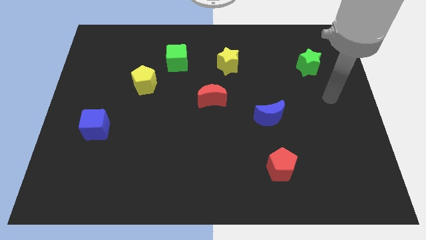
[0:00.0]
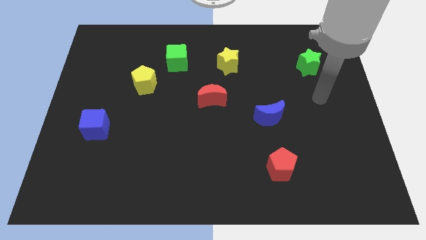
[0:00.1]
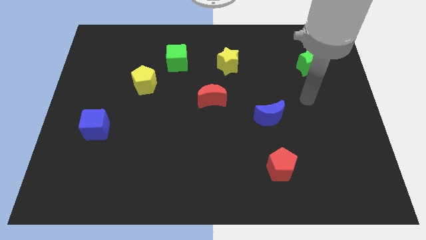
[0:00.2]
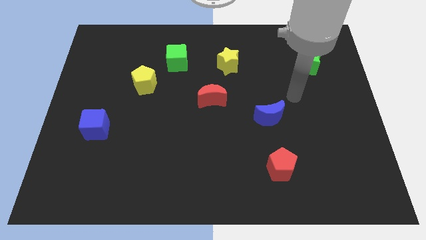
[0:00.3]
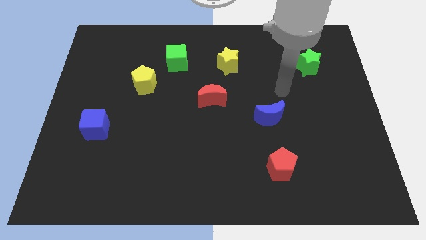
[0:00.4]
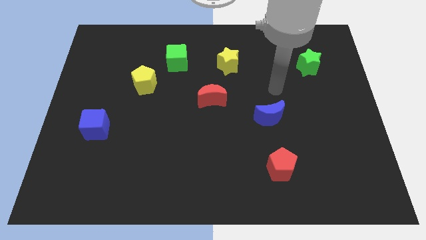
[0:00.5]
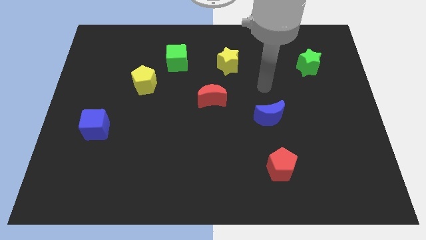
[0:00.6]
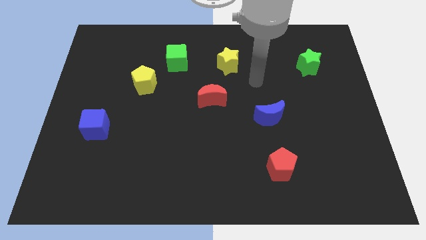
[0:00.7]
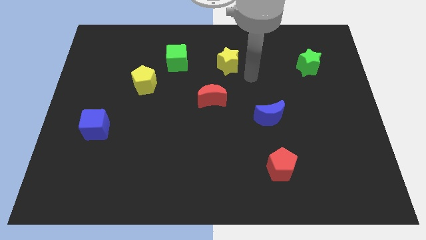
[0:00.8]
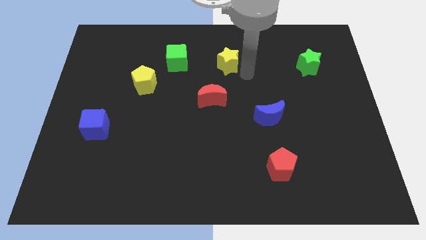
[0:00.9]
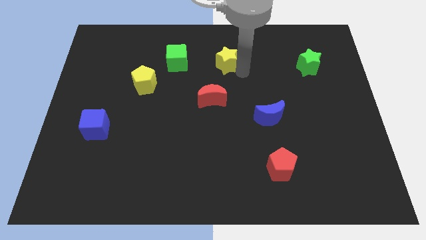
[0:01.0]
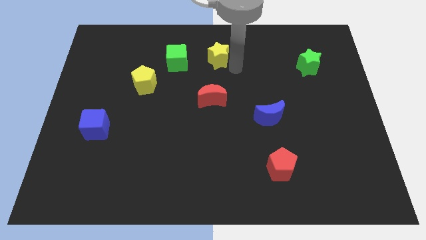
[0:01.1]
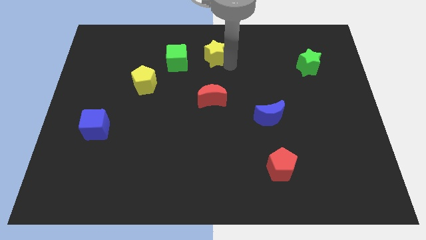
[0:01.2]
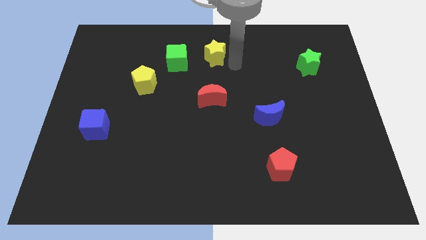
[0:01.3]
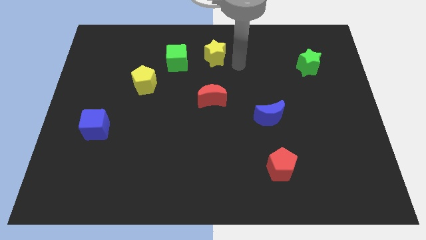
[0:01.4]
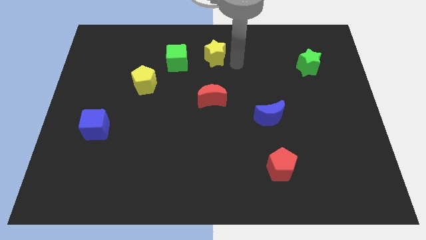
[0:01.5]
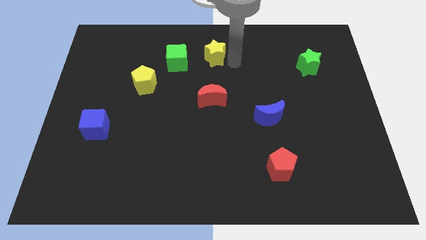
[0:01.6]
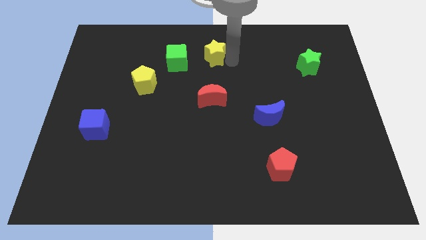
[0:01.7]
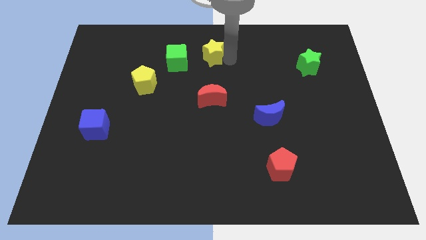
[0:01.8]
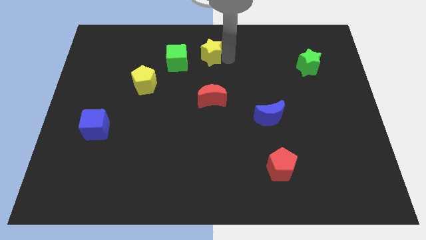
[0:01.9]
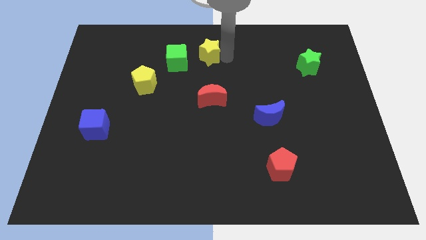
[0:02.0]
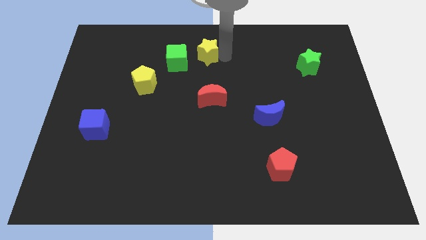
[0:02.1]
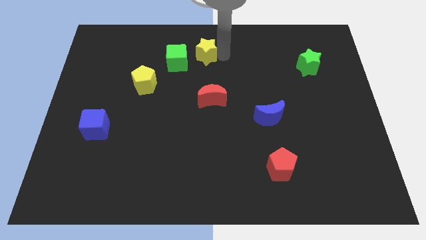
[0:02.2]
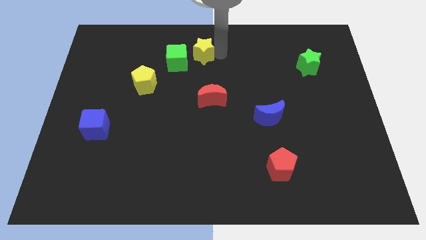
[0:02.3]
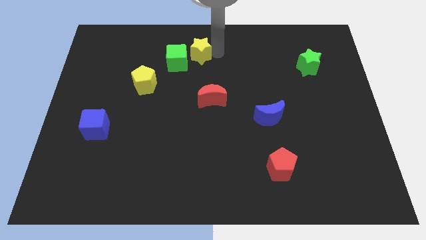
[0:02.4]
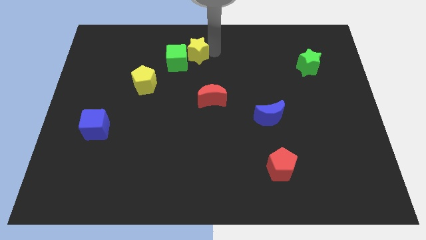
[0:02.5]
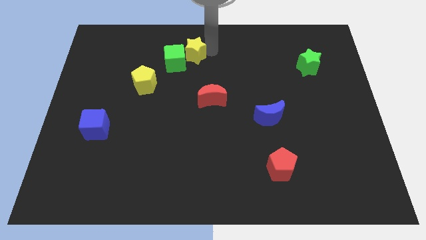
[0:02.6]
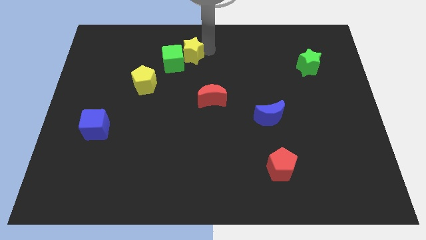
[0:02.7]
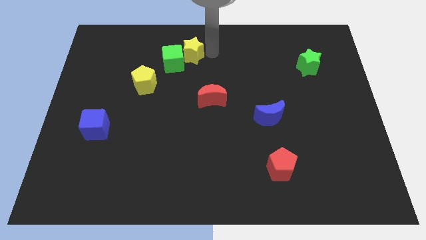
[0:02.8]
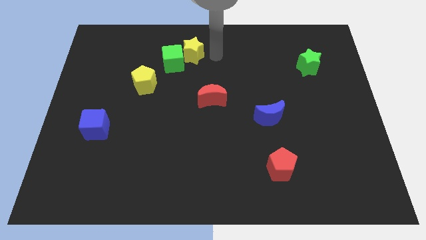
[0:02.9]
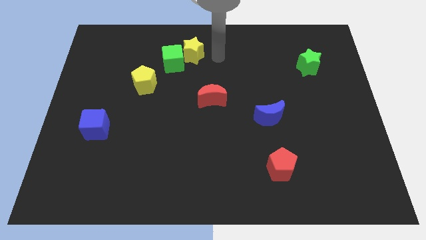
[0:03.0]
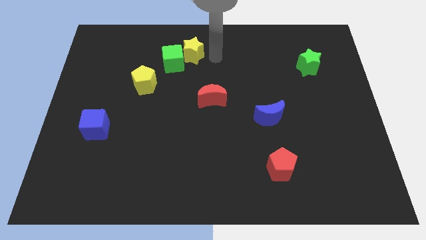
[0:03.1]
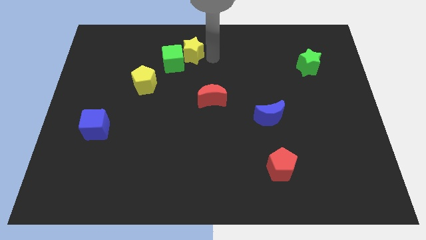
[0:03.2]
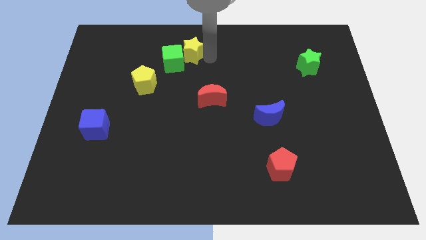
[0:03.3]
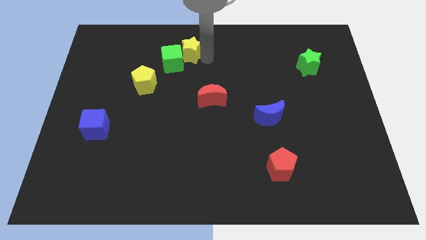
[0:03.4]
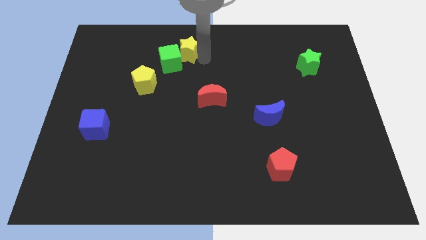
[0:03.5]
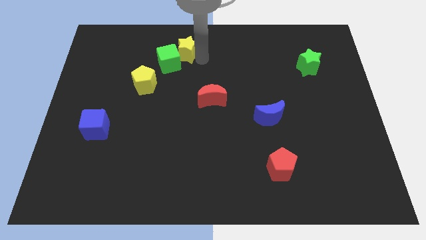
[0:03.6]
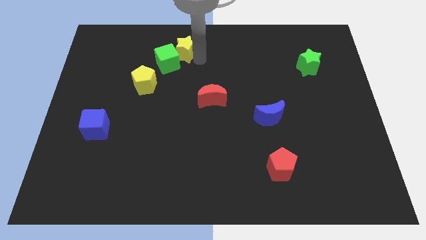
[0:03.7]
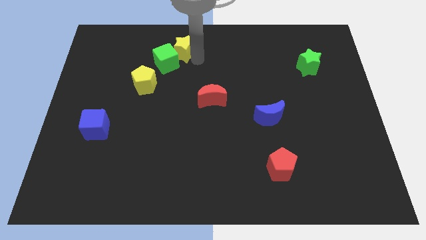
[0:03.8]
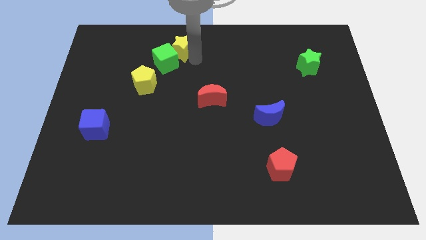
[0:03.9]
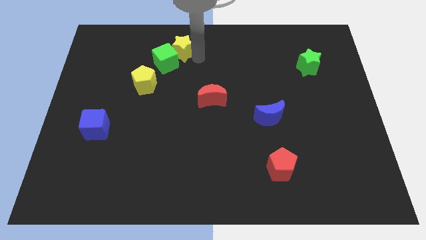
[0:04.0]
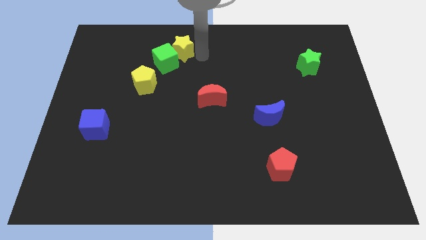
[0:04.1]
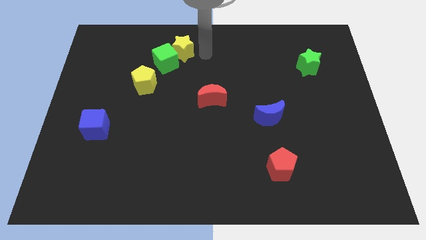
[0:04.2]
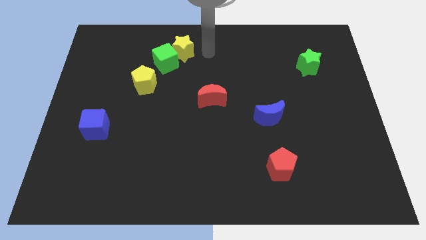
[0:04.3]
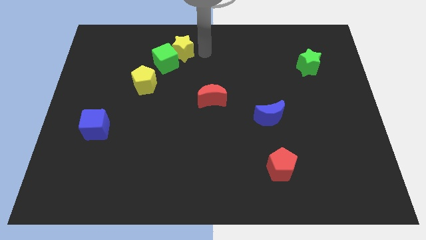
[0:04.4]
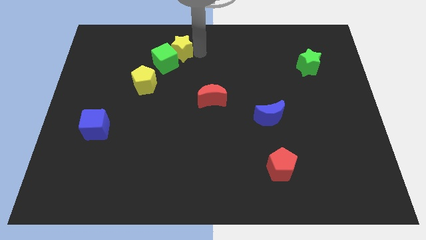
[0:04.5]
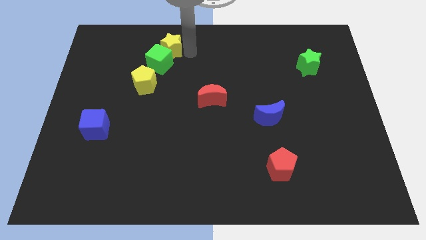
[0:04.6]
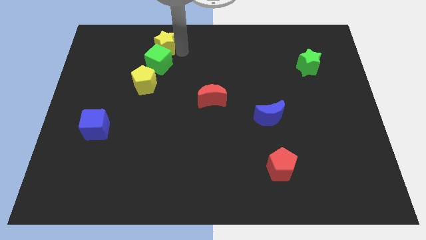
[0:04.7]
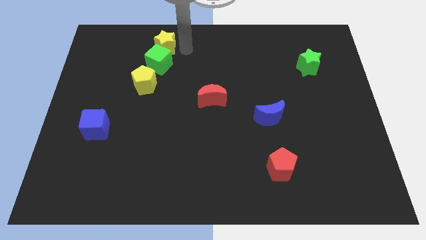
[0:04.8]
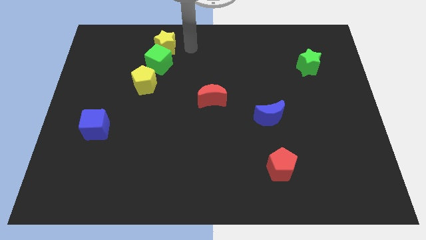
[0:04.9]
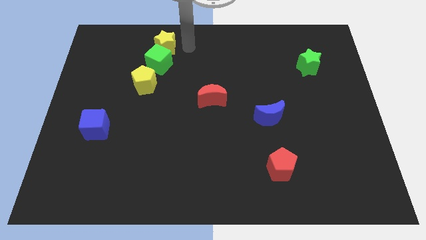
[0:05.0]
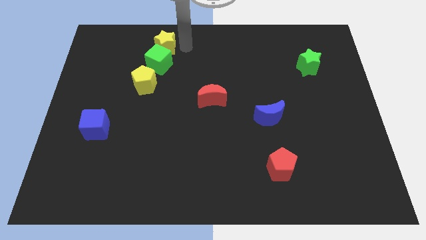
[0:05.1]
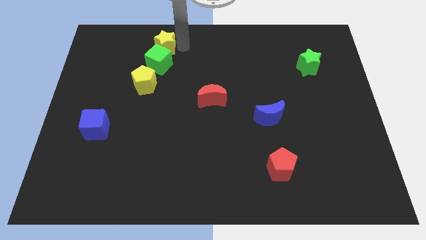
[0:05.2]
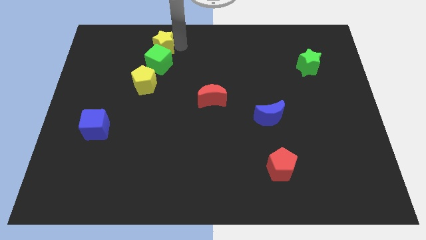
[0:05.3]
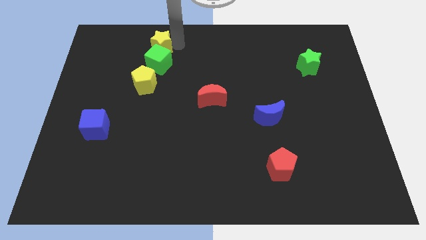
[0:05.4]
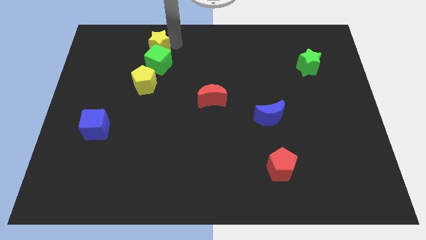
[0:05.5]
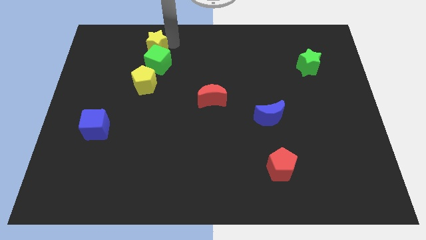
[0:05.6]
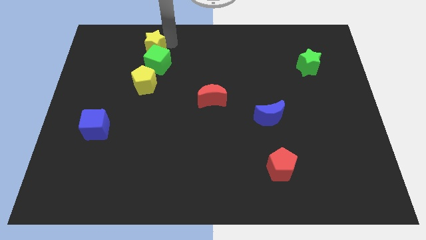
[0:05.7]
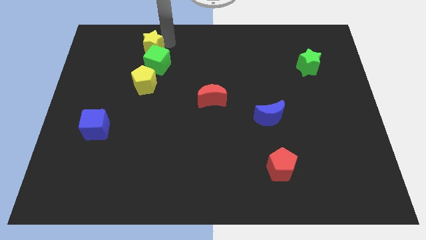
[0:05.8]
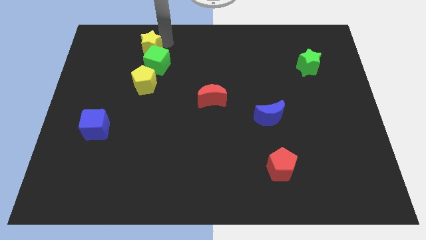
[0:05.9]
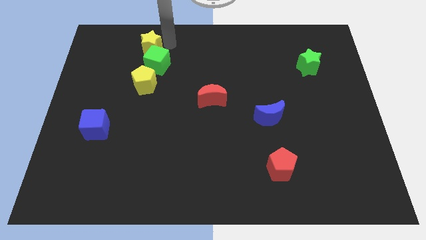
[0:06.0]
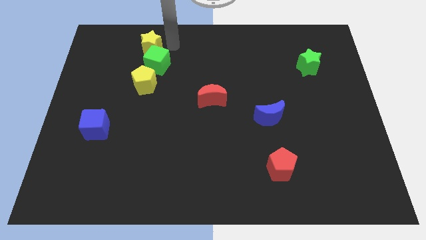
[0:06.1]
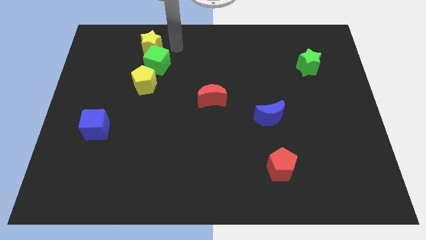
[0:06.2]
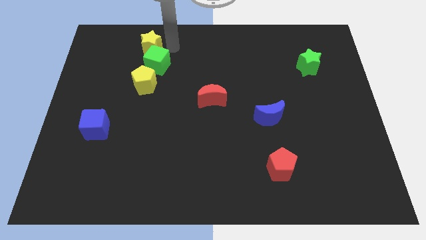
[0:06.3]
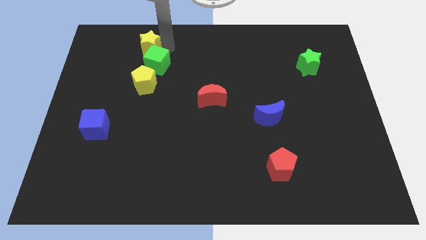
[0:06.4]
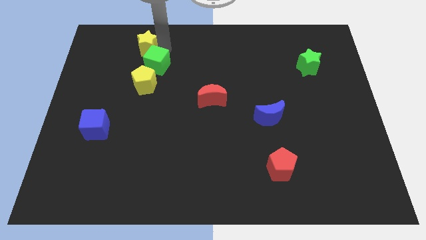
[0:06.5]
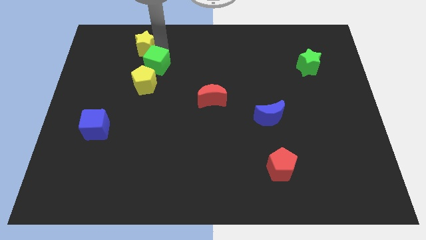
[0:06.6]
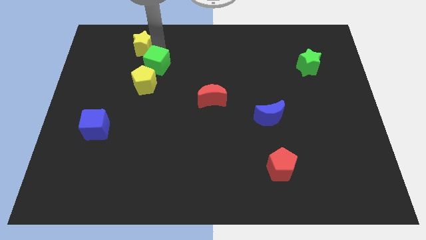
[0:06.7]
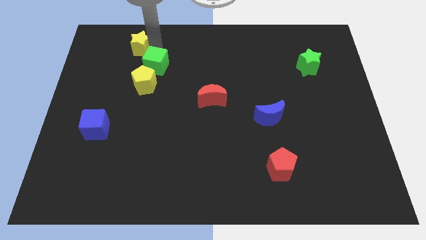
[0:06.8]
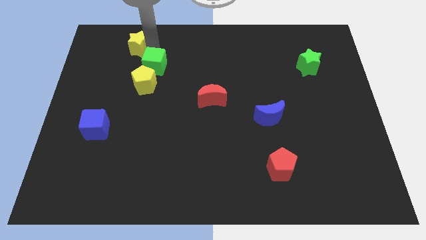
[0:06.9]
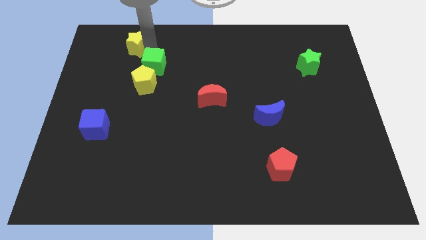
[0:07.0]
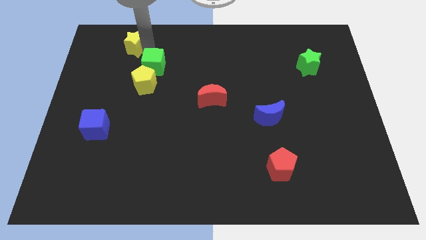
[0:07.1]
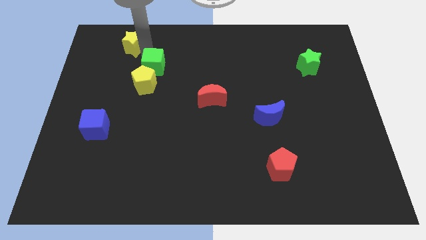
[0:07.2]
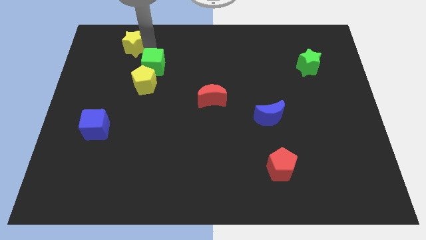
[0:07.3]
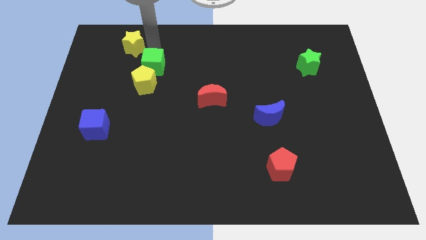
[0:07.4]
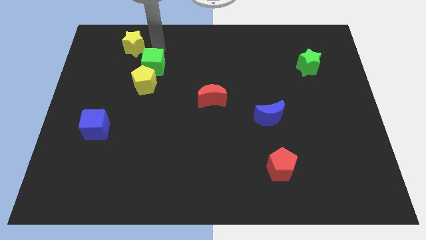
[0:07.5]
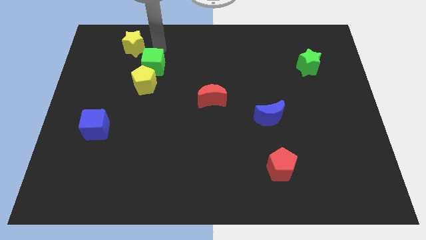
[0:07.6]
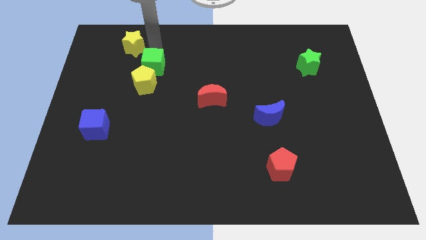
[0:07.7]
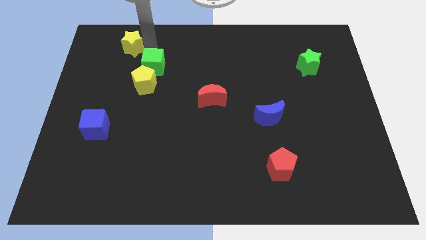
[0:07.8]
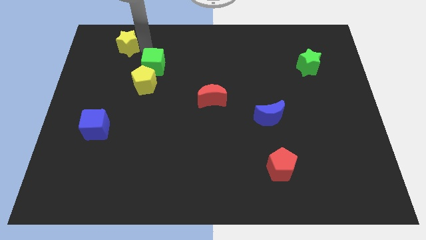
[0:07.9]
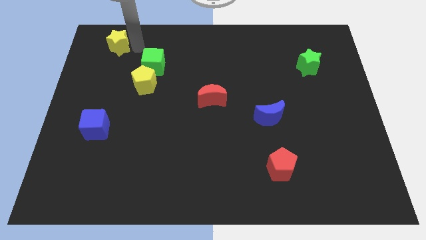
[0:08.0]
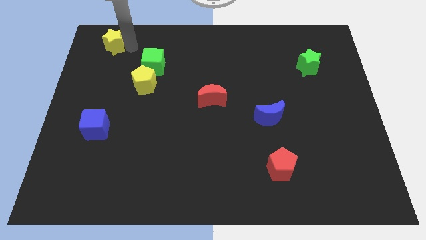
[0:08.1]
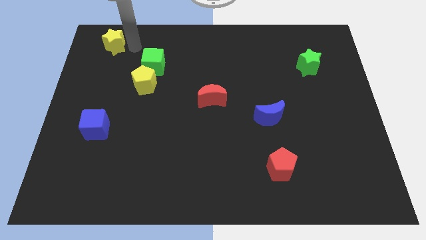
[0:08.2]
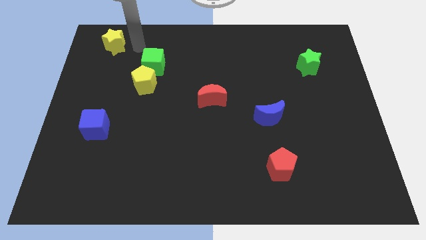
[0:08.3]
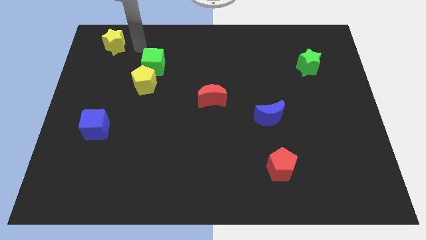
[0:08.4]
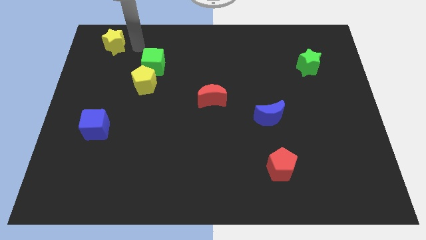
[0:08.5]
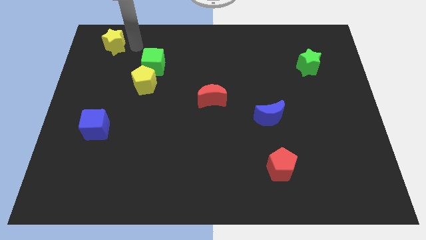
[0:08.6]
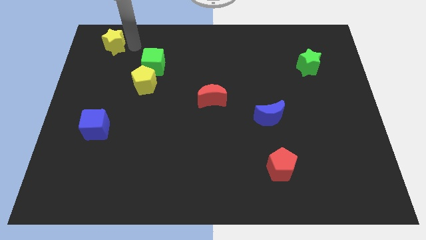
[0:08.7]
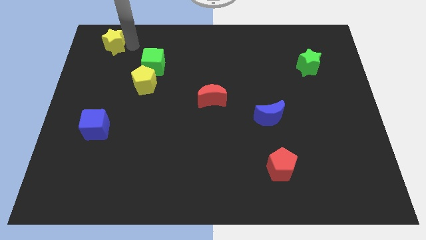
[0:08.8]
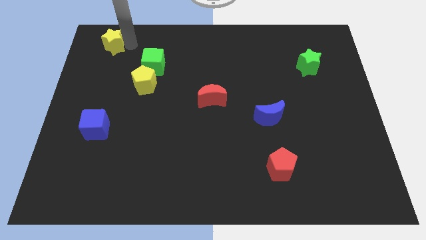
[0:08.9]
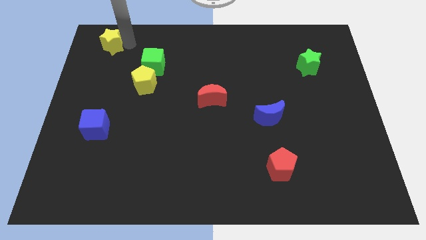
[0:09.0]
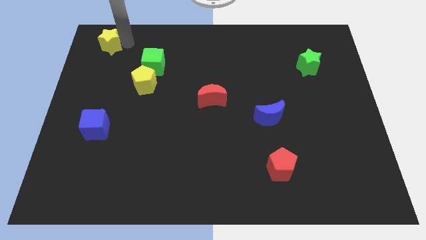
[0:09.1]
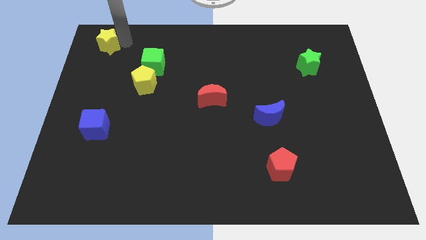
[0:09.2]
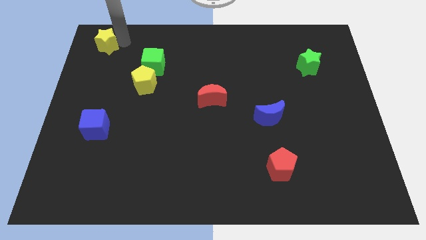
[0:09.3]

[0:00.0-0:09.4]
put the yellow star to the upper left corner
